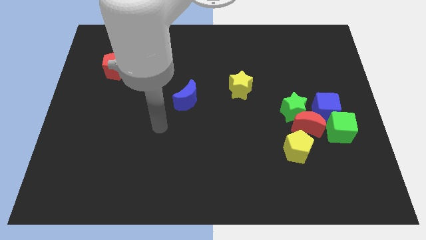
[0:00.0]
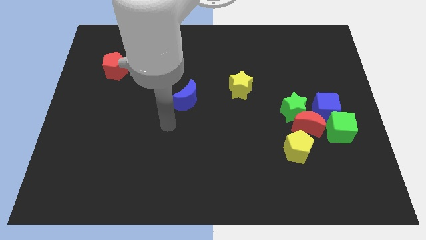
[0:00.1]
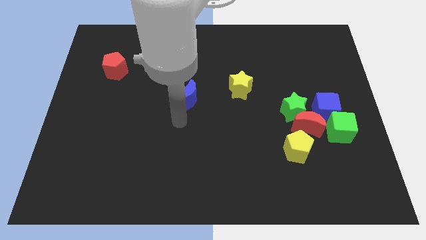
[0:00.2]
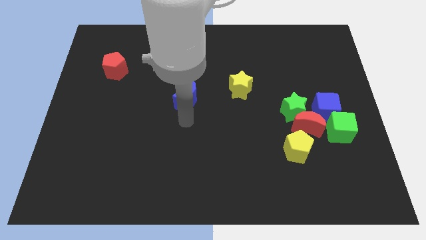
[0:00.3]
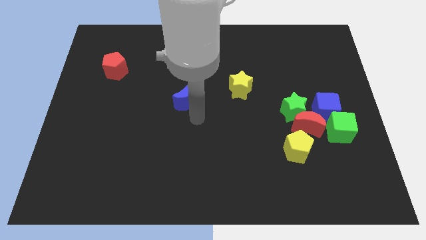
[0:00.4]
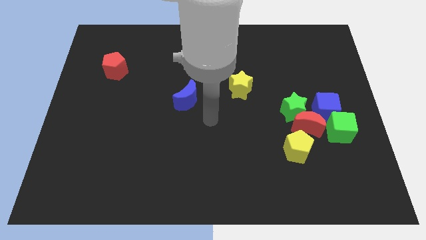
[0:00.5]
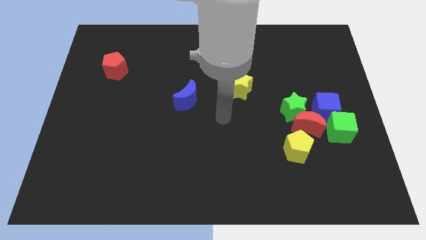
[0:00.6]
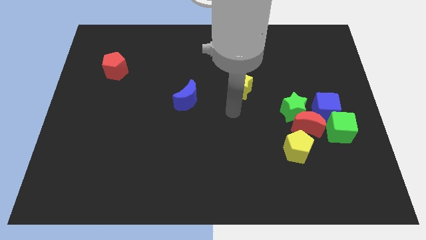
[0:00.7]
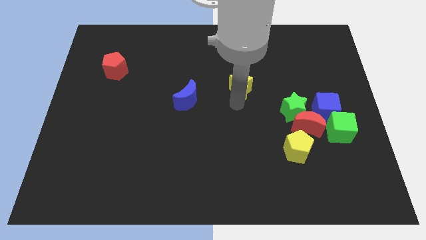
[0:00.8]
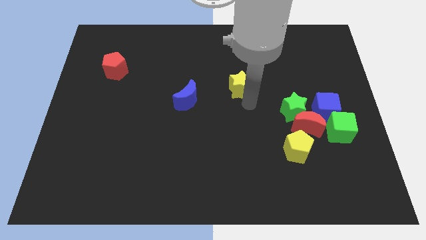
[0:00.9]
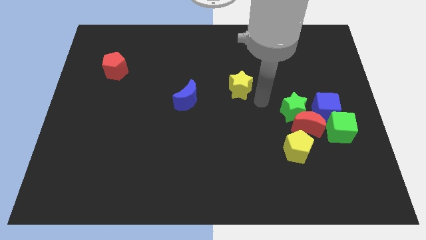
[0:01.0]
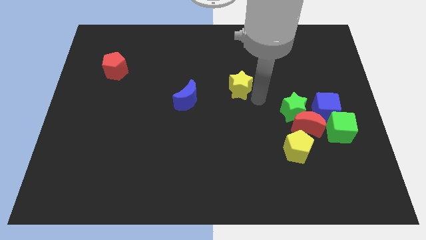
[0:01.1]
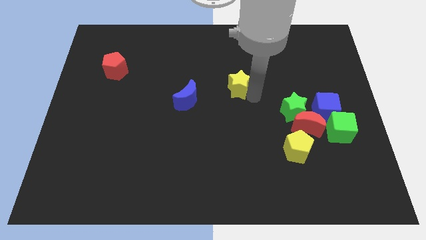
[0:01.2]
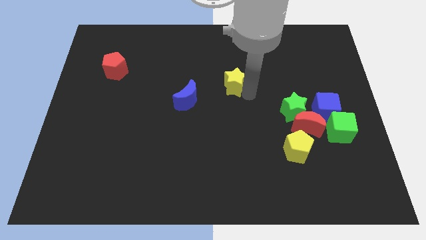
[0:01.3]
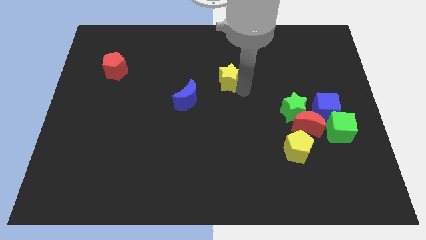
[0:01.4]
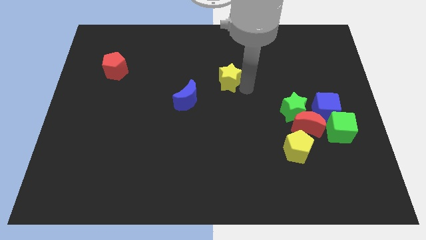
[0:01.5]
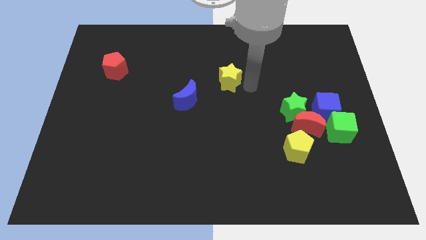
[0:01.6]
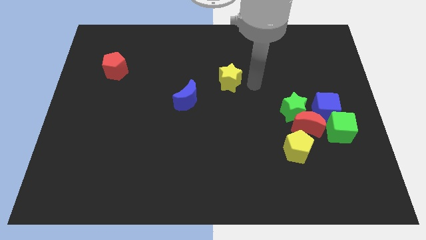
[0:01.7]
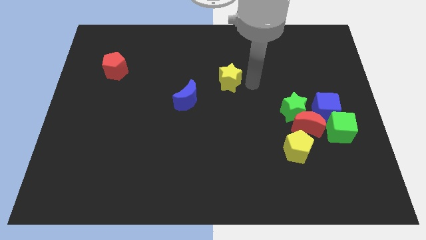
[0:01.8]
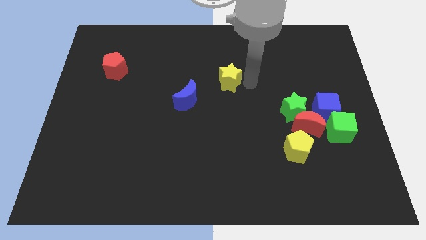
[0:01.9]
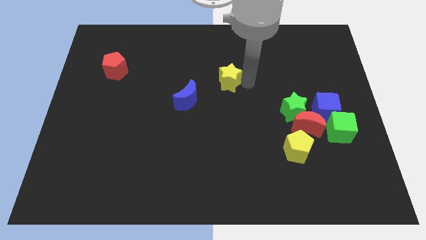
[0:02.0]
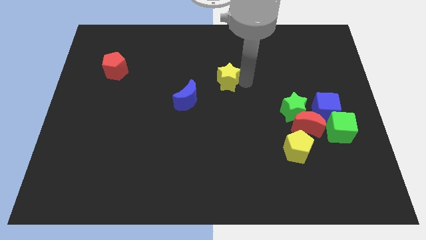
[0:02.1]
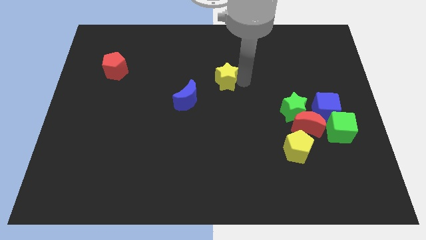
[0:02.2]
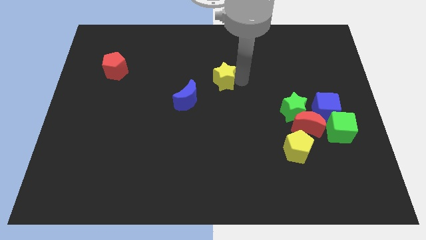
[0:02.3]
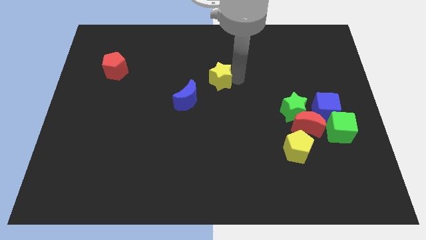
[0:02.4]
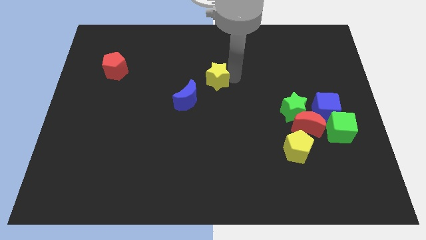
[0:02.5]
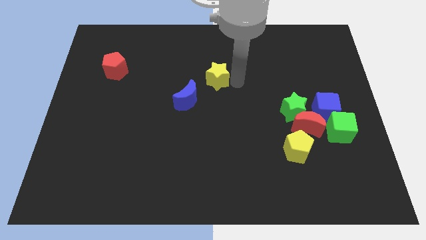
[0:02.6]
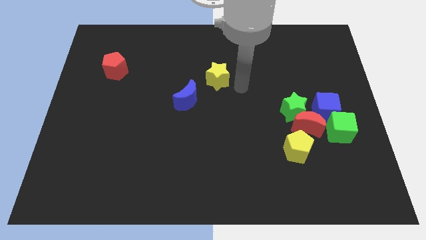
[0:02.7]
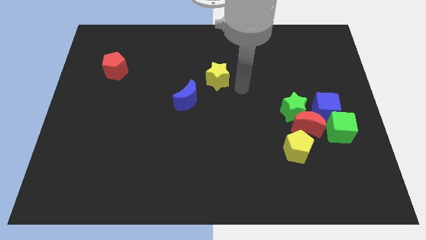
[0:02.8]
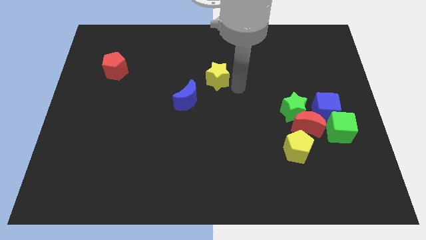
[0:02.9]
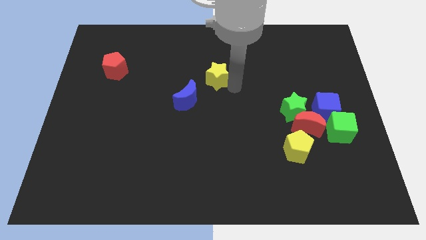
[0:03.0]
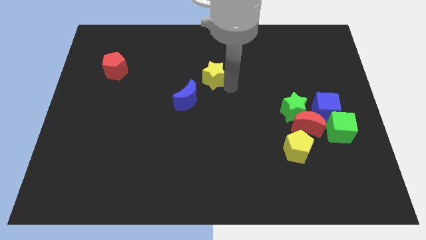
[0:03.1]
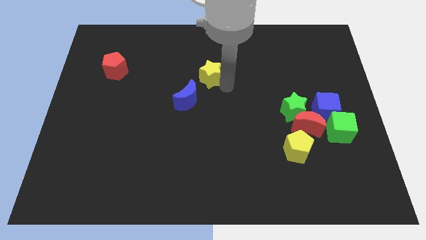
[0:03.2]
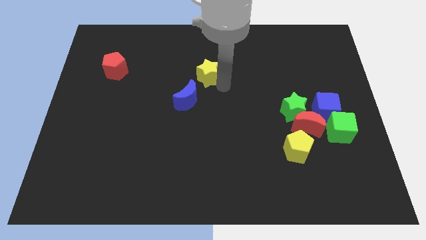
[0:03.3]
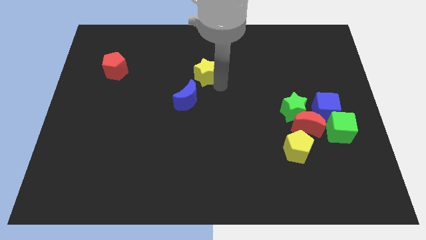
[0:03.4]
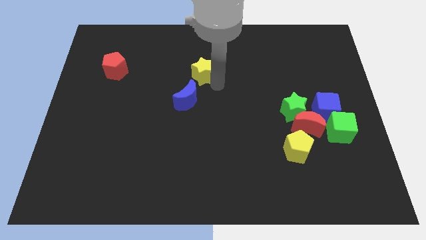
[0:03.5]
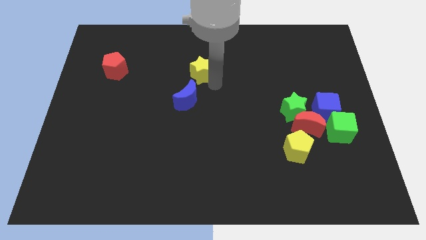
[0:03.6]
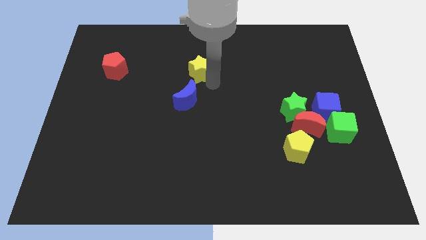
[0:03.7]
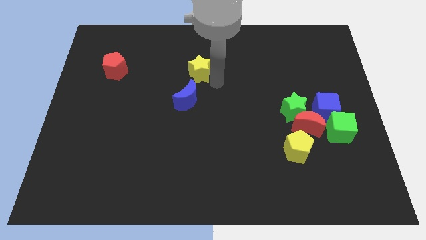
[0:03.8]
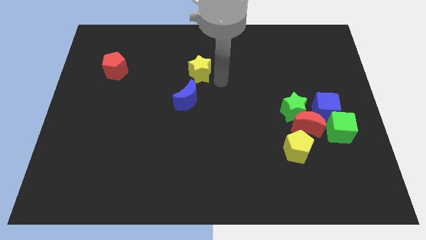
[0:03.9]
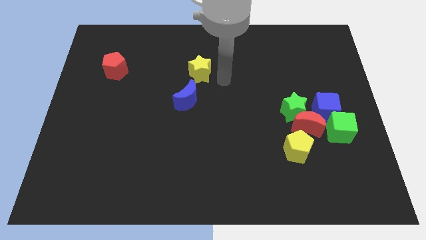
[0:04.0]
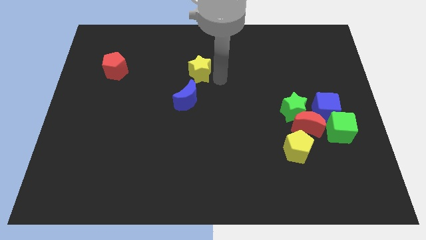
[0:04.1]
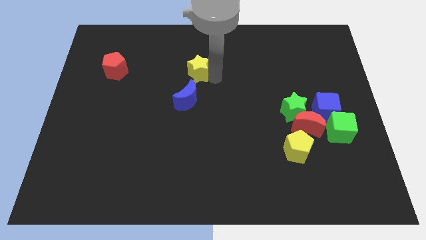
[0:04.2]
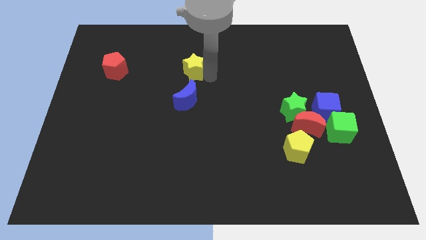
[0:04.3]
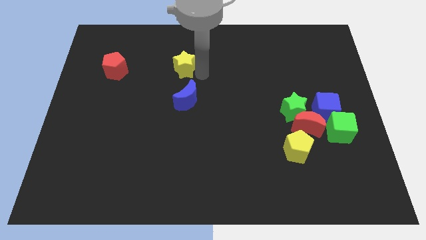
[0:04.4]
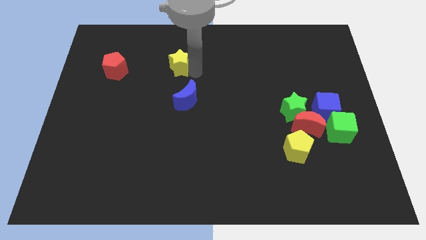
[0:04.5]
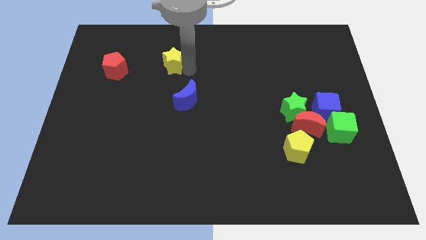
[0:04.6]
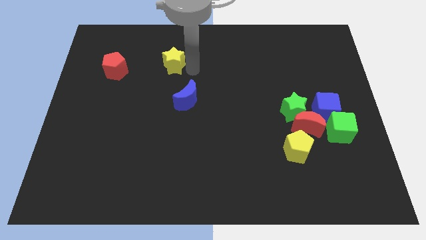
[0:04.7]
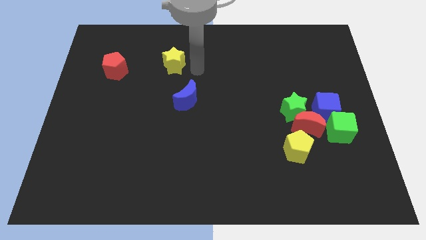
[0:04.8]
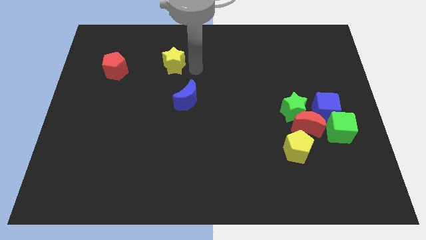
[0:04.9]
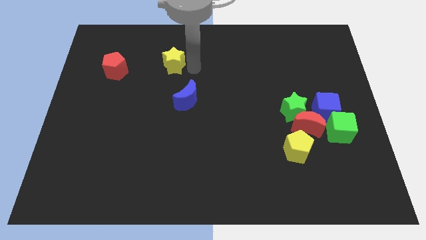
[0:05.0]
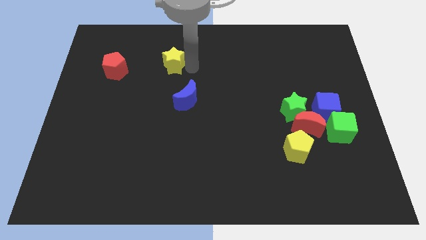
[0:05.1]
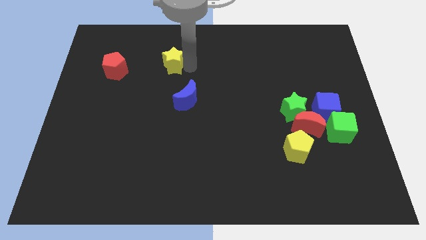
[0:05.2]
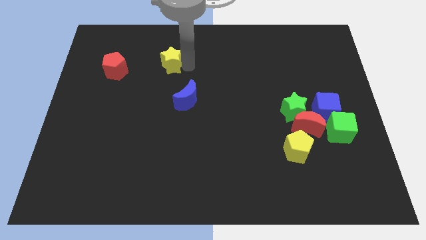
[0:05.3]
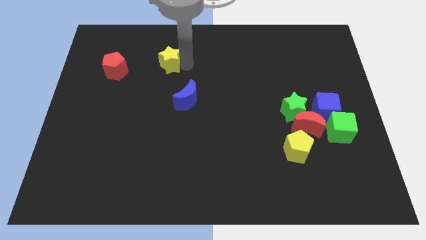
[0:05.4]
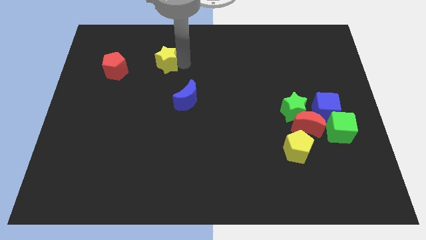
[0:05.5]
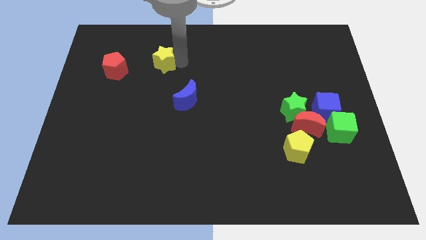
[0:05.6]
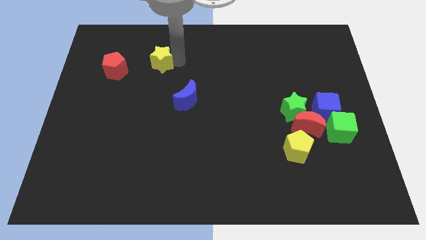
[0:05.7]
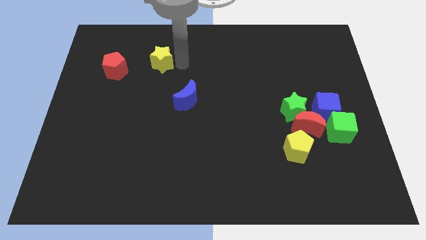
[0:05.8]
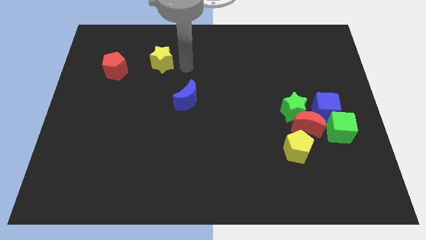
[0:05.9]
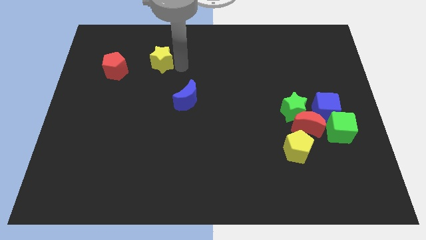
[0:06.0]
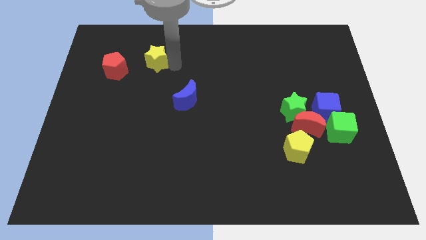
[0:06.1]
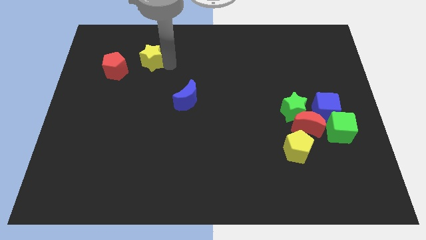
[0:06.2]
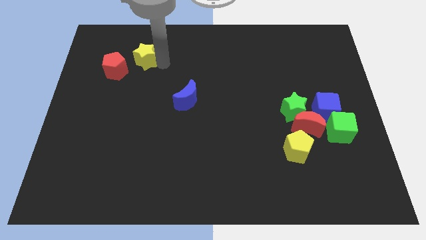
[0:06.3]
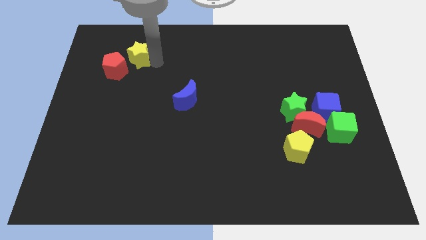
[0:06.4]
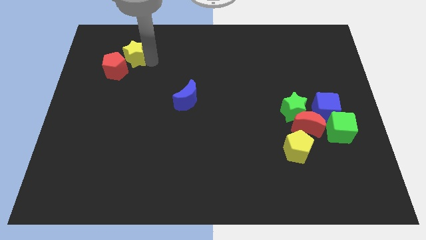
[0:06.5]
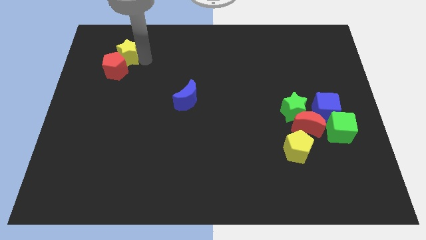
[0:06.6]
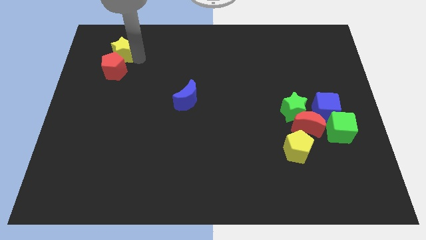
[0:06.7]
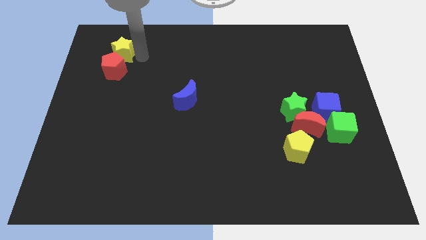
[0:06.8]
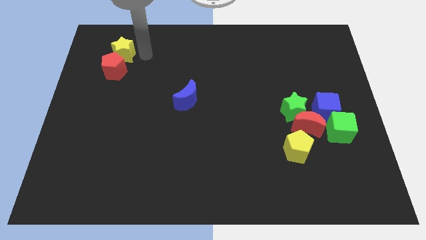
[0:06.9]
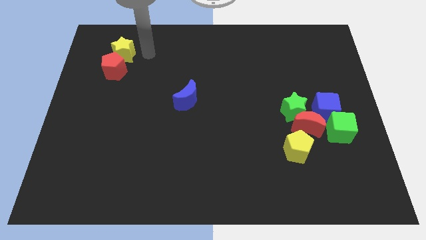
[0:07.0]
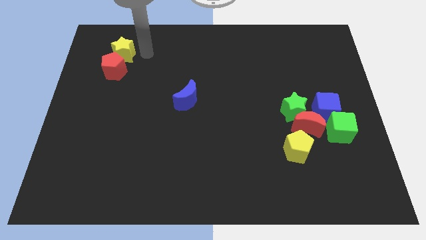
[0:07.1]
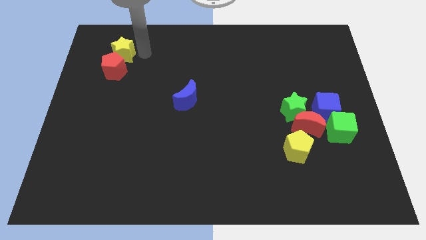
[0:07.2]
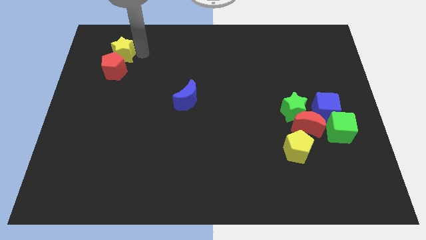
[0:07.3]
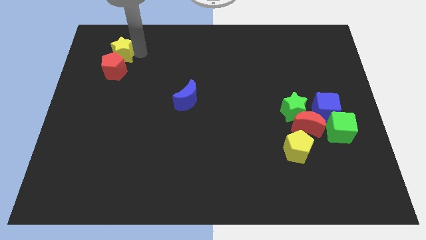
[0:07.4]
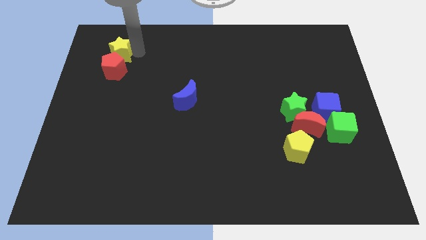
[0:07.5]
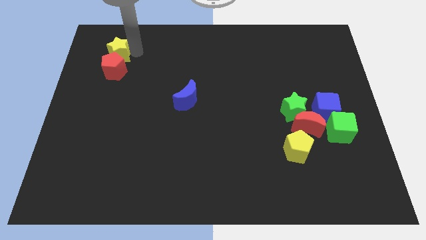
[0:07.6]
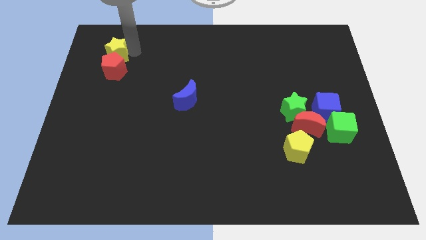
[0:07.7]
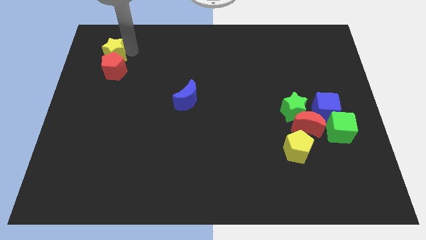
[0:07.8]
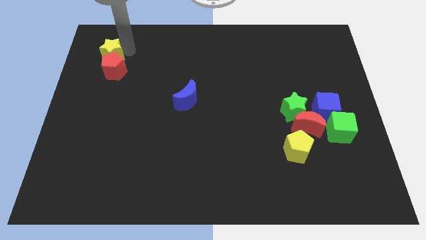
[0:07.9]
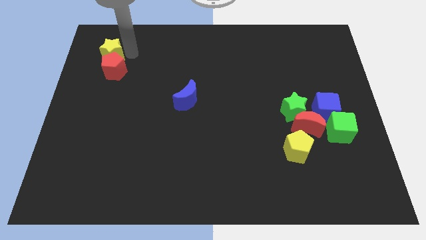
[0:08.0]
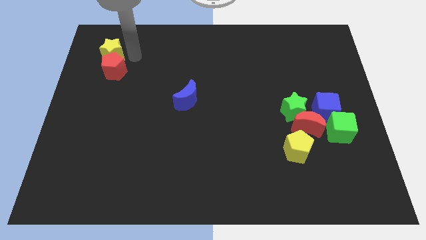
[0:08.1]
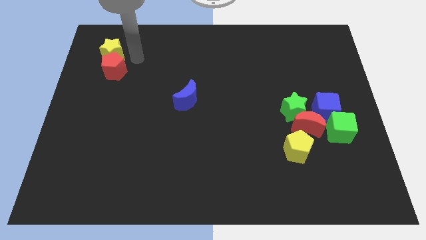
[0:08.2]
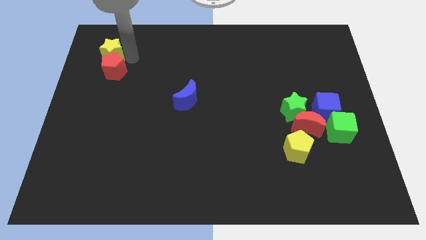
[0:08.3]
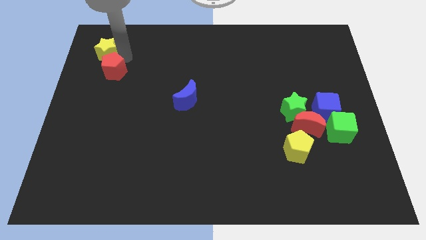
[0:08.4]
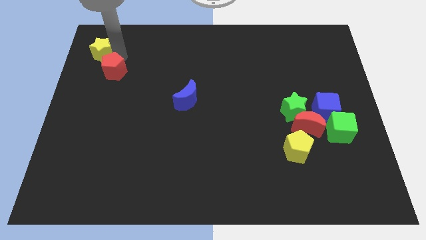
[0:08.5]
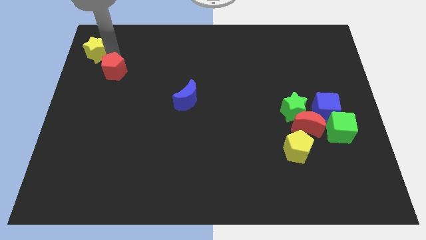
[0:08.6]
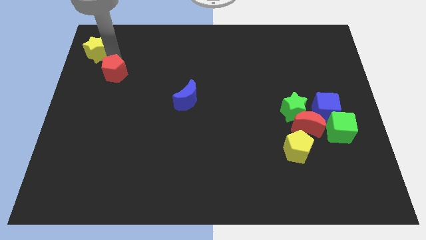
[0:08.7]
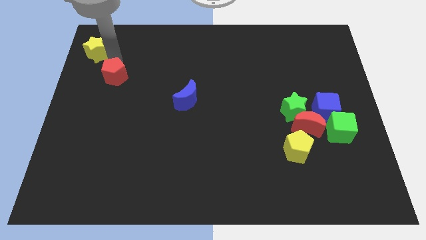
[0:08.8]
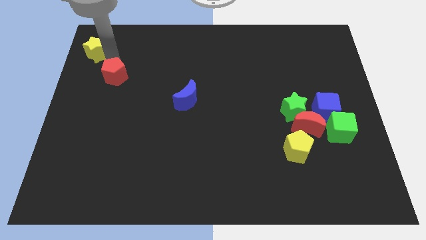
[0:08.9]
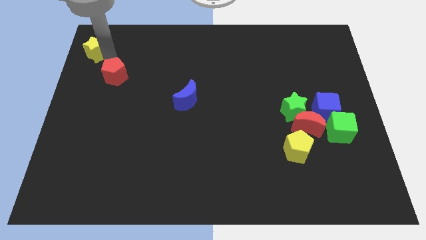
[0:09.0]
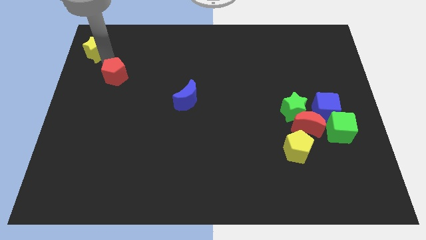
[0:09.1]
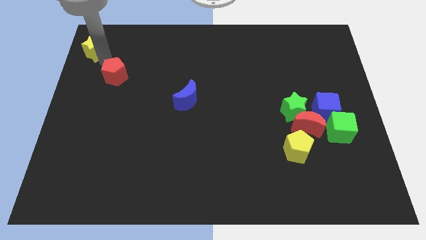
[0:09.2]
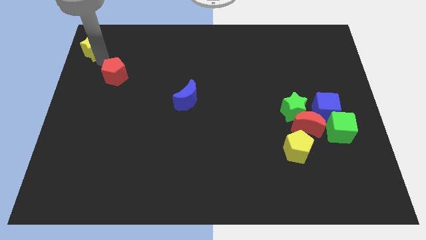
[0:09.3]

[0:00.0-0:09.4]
push the yellow star to the upper left corner
